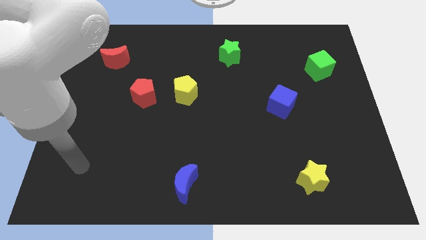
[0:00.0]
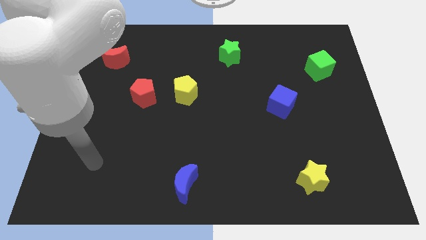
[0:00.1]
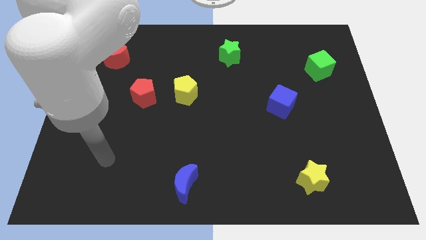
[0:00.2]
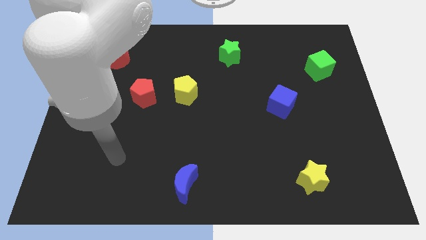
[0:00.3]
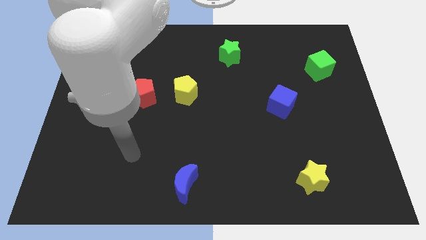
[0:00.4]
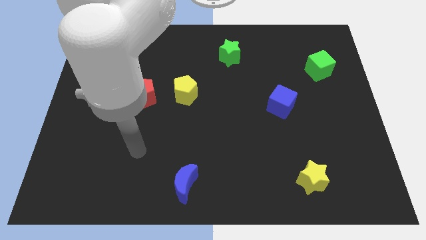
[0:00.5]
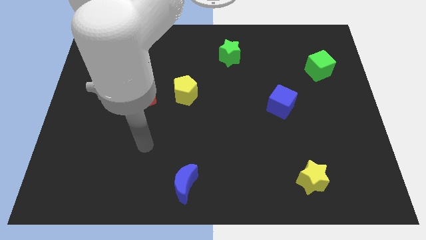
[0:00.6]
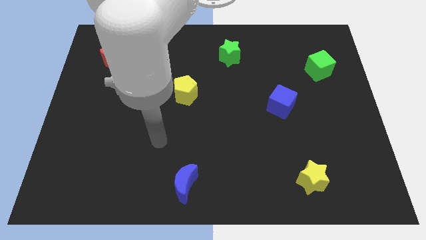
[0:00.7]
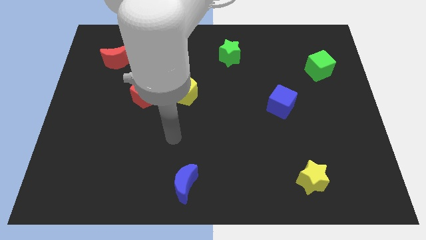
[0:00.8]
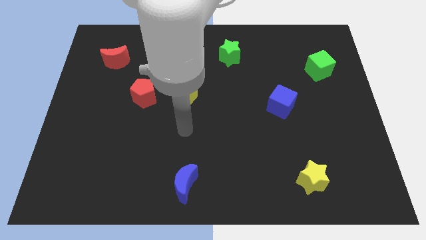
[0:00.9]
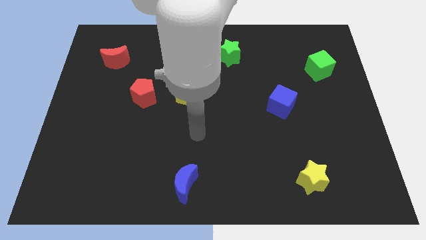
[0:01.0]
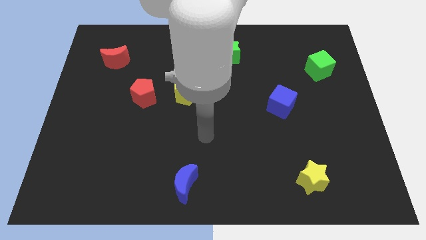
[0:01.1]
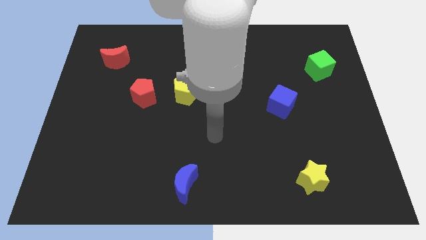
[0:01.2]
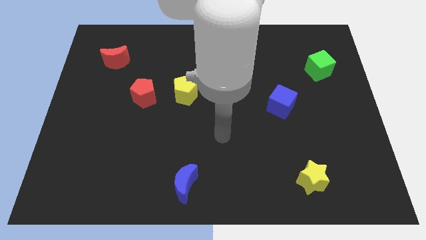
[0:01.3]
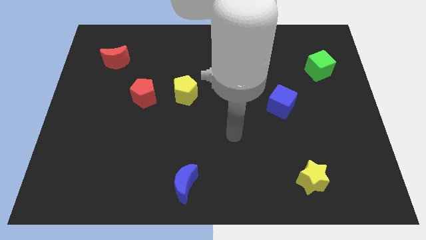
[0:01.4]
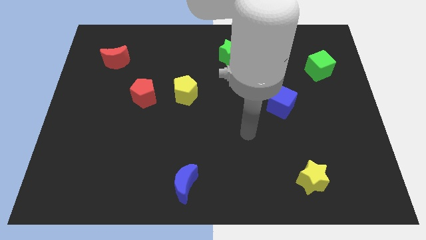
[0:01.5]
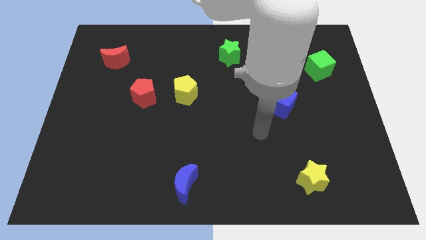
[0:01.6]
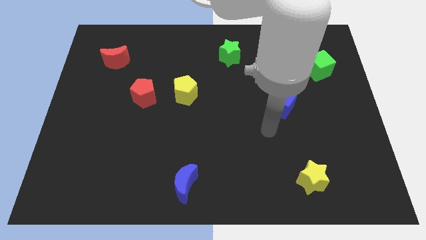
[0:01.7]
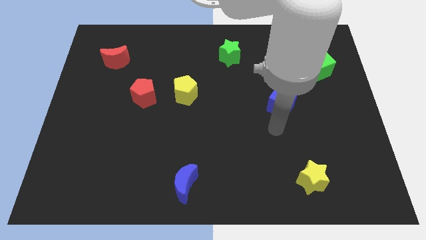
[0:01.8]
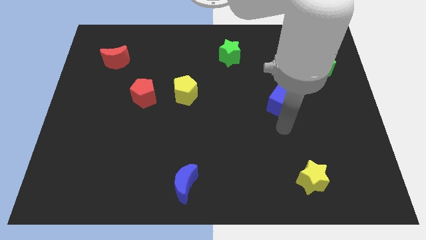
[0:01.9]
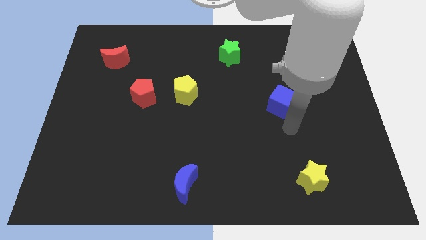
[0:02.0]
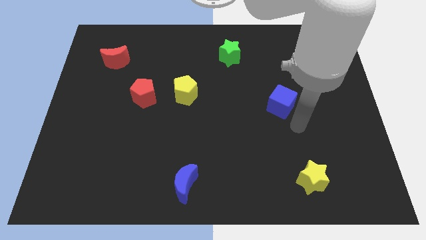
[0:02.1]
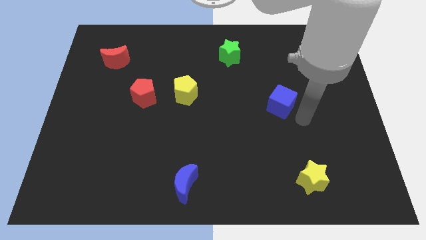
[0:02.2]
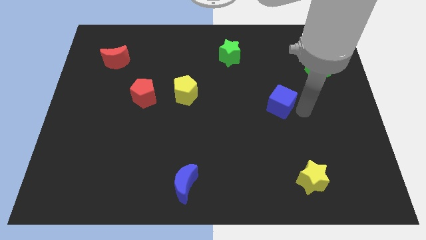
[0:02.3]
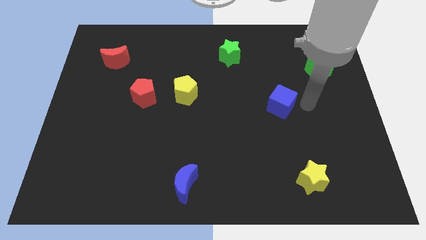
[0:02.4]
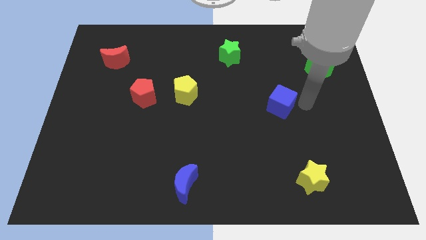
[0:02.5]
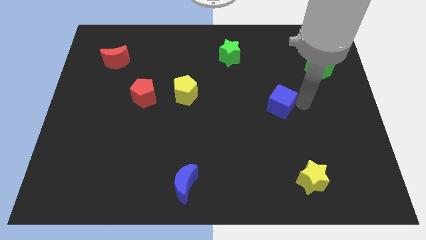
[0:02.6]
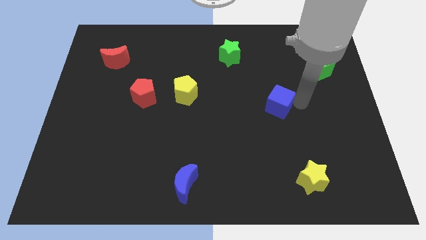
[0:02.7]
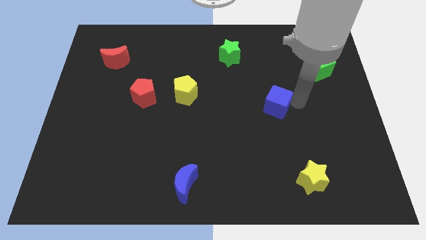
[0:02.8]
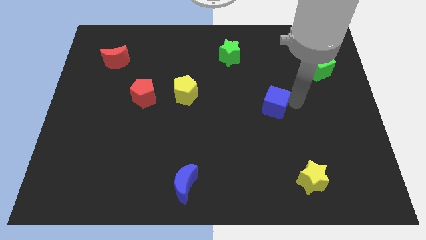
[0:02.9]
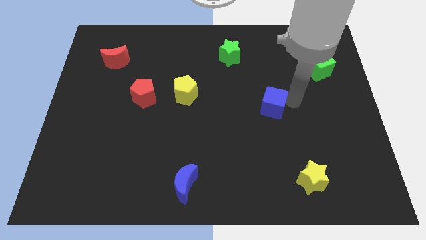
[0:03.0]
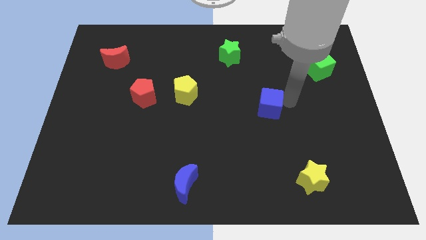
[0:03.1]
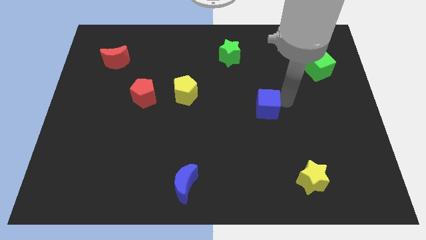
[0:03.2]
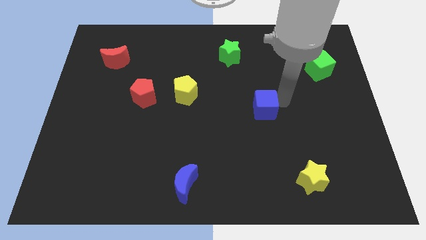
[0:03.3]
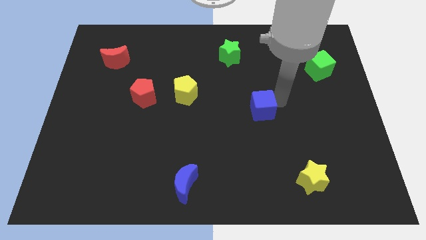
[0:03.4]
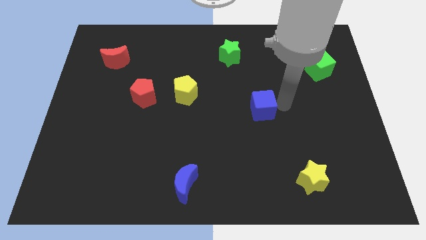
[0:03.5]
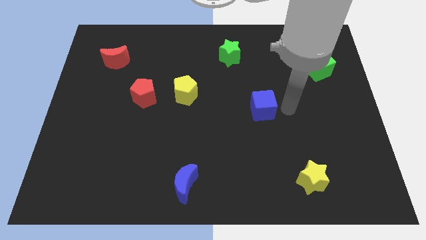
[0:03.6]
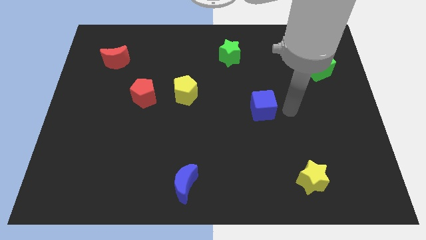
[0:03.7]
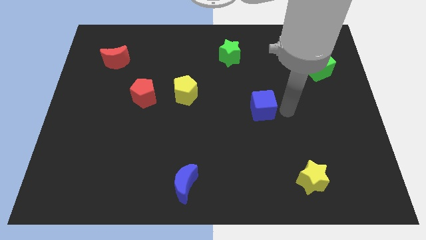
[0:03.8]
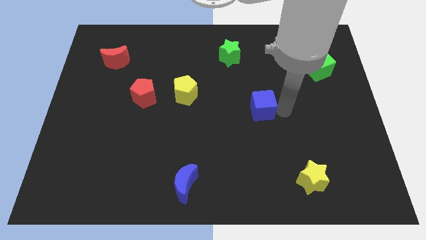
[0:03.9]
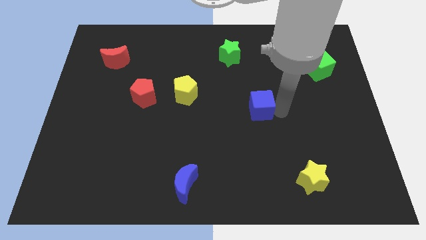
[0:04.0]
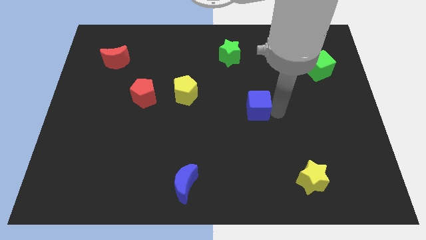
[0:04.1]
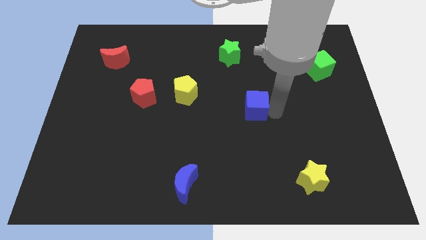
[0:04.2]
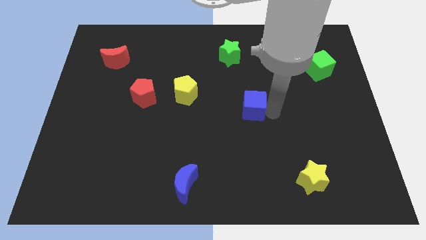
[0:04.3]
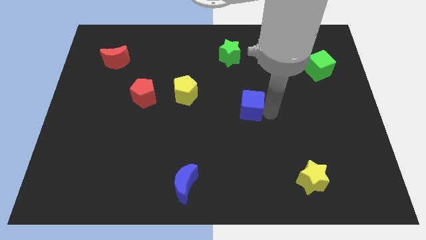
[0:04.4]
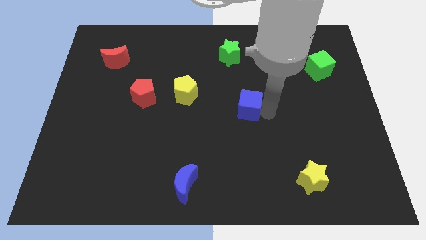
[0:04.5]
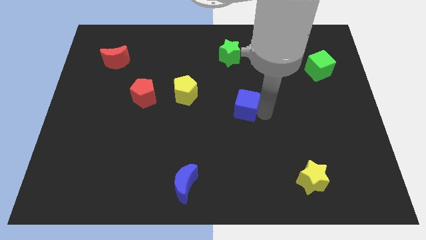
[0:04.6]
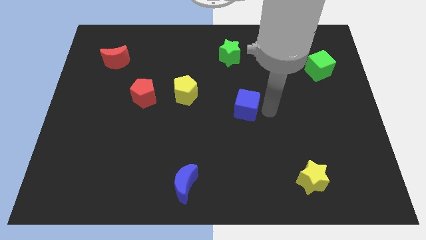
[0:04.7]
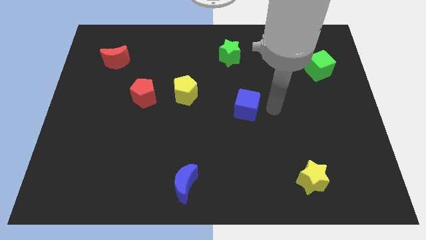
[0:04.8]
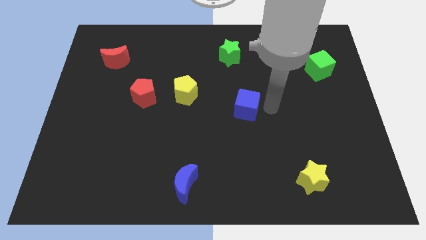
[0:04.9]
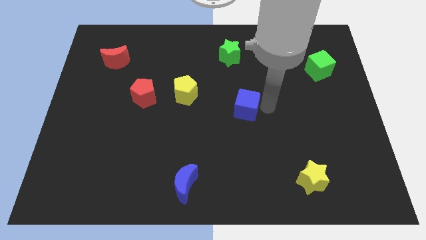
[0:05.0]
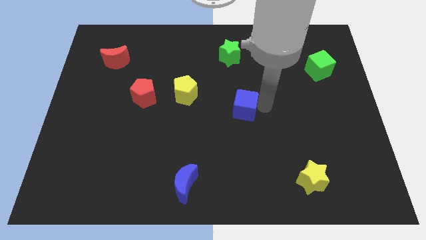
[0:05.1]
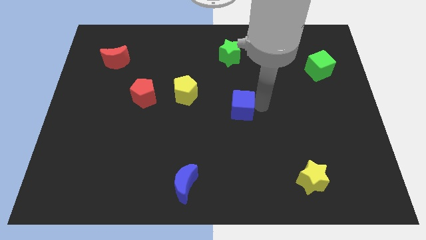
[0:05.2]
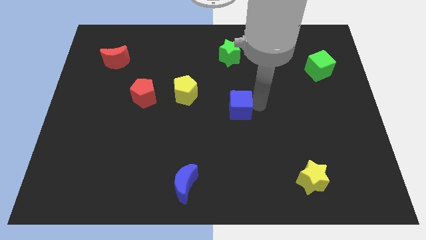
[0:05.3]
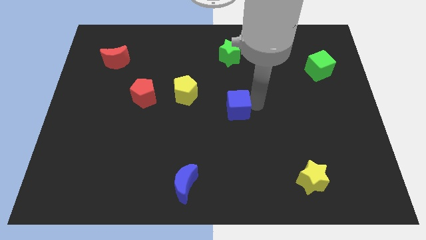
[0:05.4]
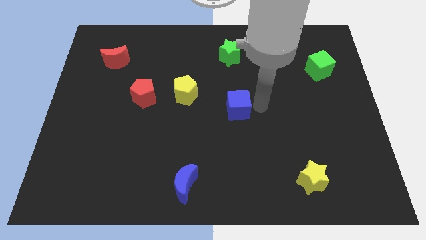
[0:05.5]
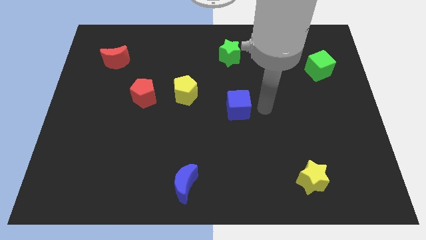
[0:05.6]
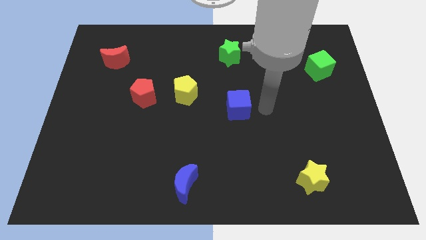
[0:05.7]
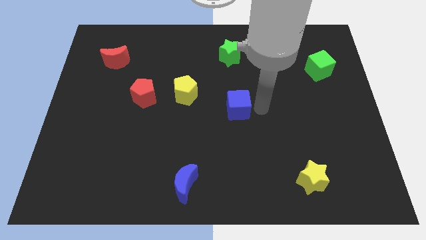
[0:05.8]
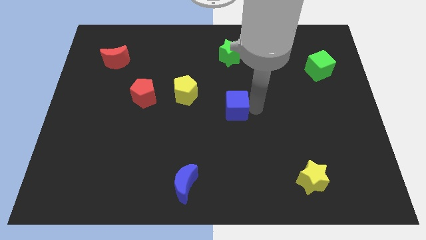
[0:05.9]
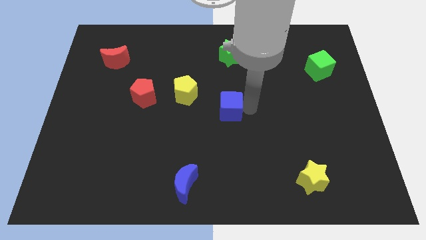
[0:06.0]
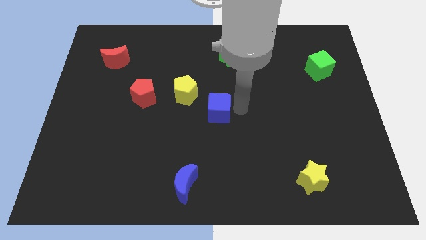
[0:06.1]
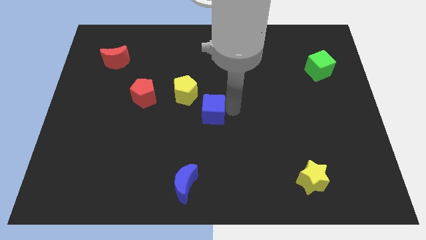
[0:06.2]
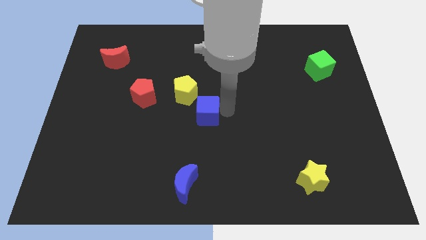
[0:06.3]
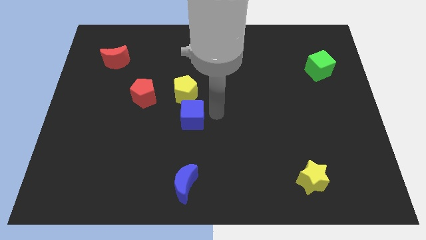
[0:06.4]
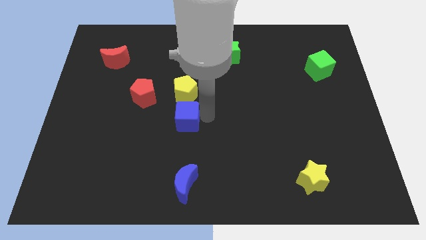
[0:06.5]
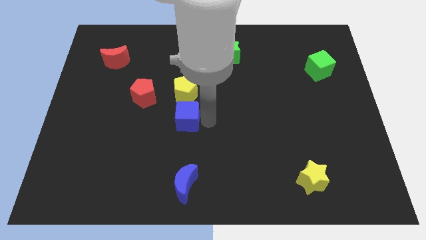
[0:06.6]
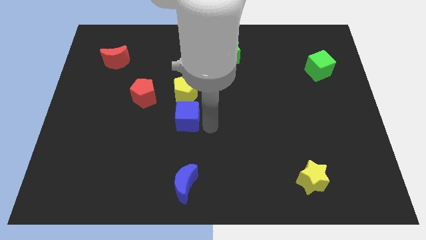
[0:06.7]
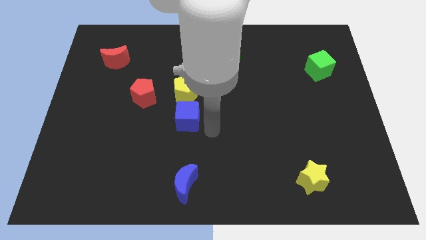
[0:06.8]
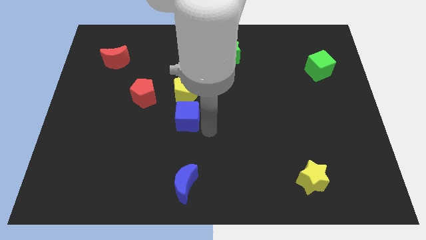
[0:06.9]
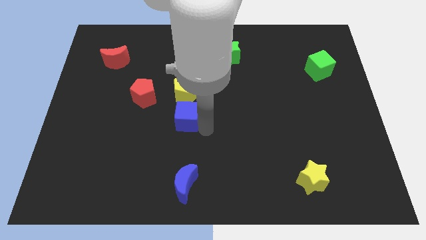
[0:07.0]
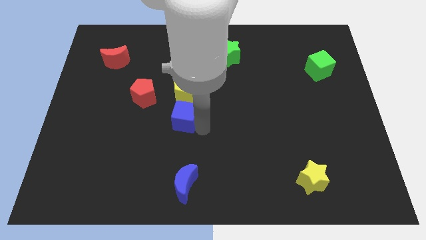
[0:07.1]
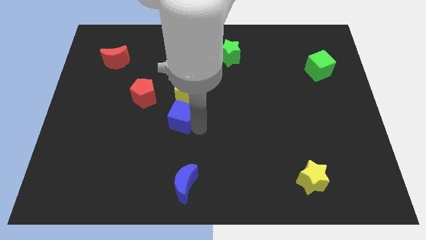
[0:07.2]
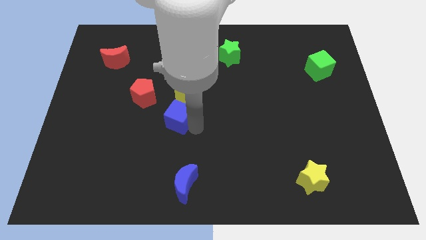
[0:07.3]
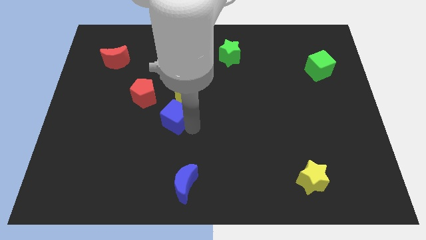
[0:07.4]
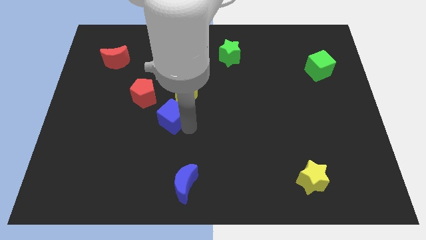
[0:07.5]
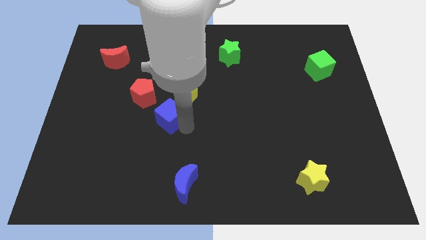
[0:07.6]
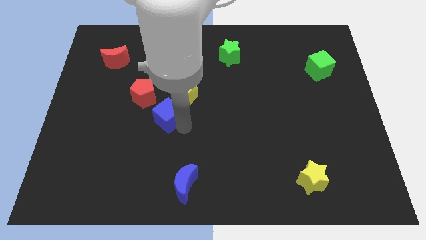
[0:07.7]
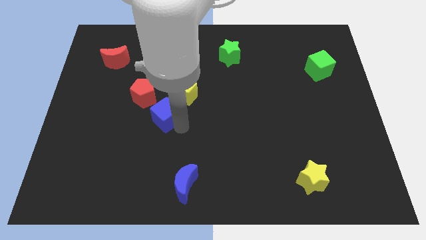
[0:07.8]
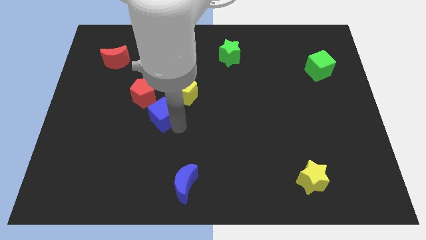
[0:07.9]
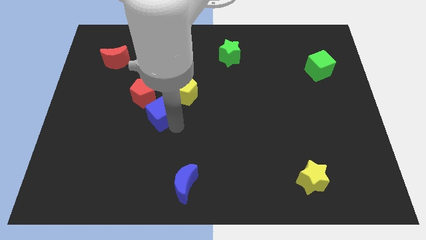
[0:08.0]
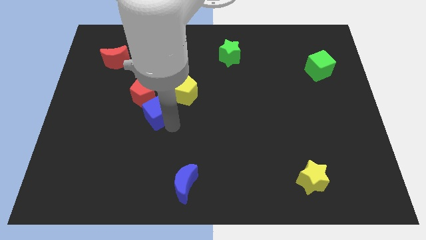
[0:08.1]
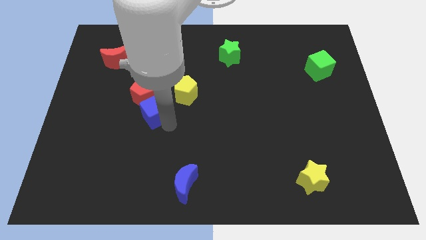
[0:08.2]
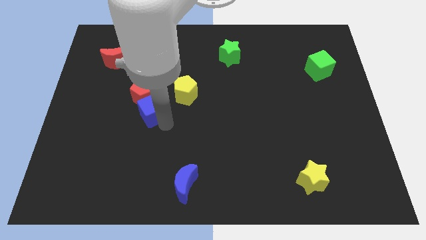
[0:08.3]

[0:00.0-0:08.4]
put the blue cube close to the red pentagon
